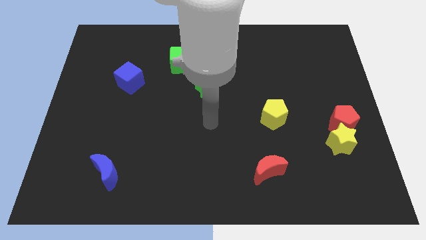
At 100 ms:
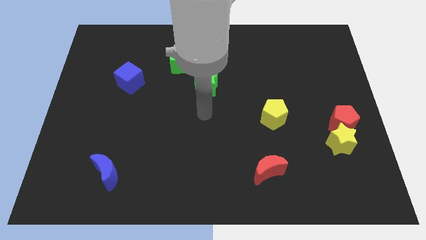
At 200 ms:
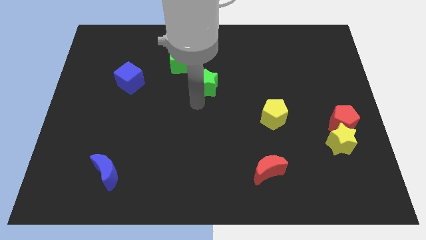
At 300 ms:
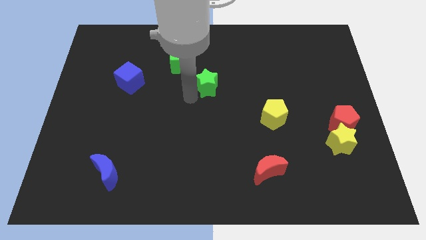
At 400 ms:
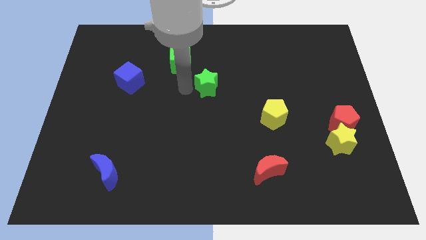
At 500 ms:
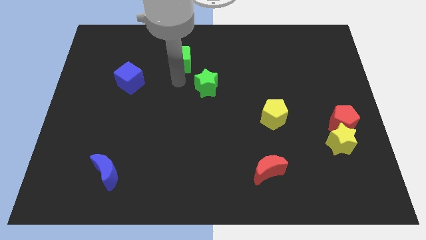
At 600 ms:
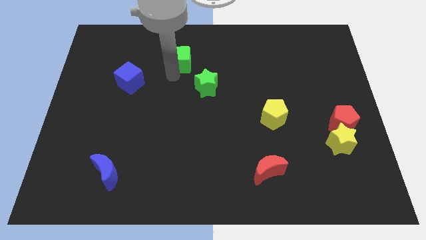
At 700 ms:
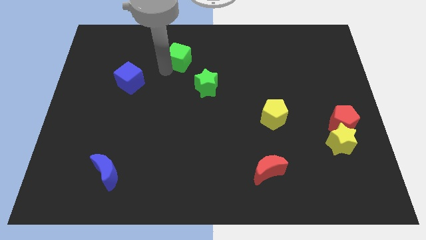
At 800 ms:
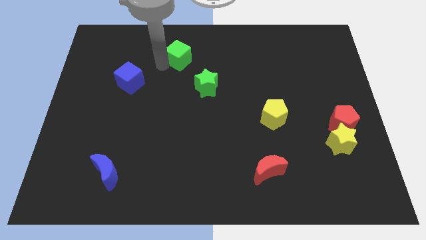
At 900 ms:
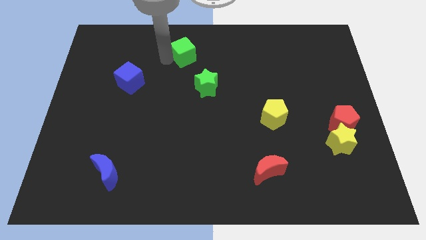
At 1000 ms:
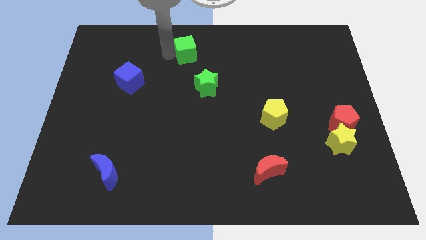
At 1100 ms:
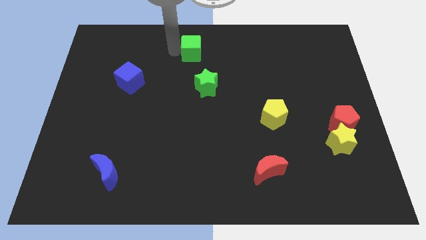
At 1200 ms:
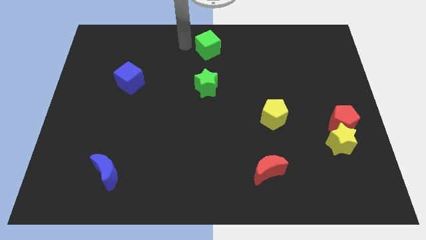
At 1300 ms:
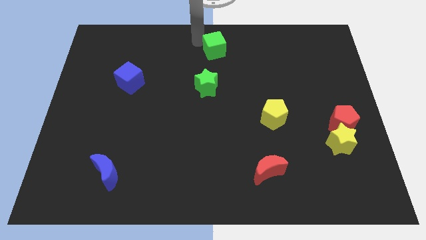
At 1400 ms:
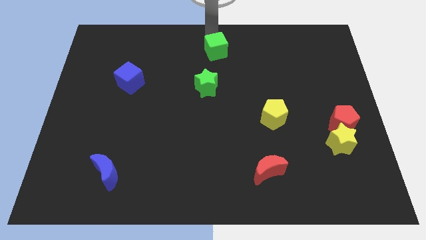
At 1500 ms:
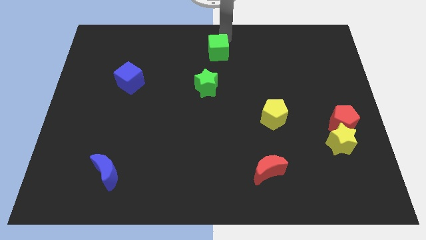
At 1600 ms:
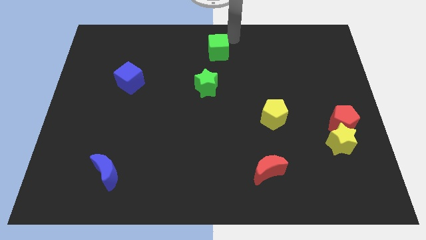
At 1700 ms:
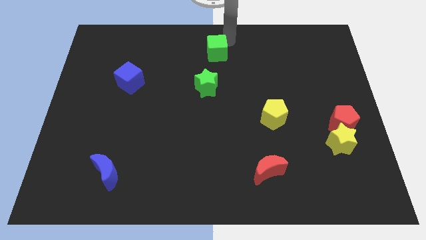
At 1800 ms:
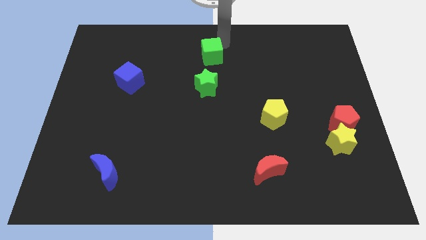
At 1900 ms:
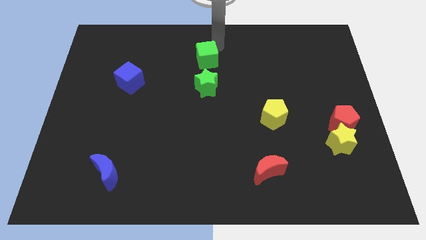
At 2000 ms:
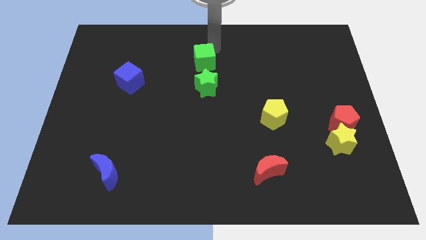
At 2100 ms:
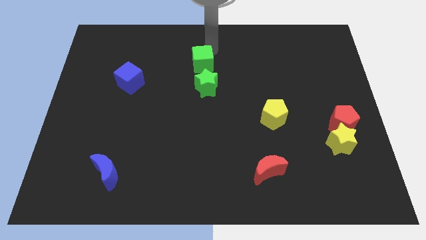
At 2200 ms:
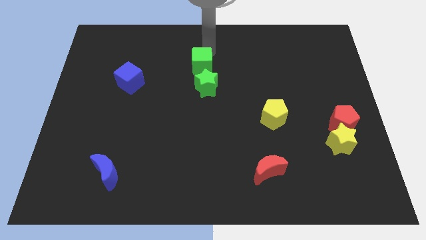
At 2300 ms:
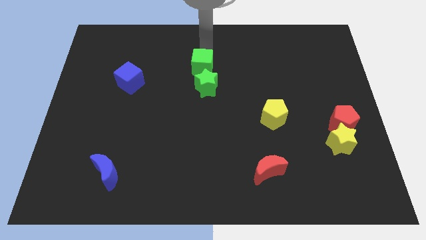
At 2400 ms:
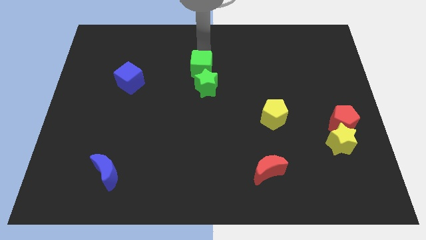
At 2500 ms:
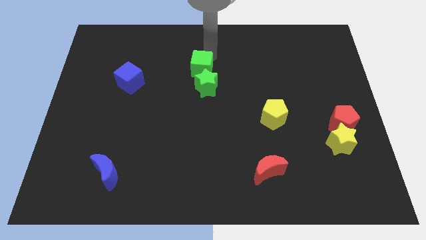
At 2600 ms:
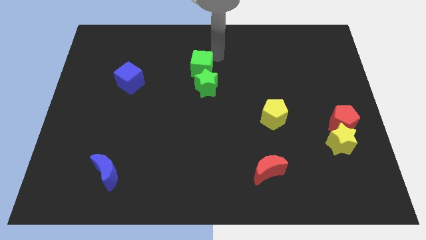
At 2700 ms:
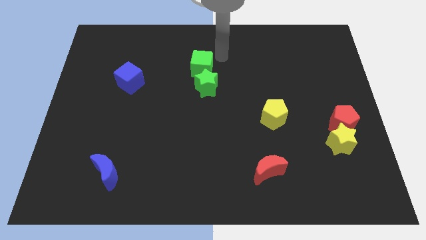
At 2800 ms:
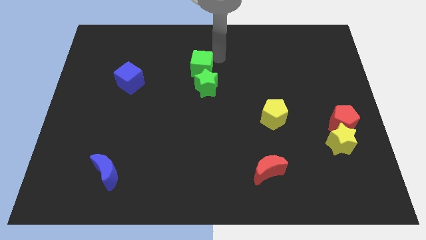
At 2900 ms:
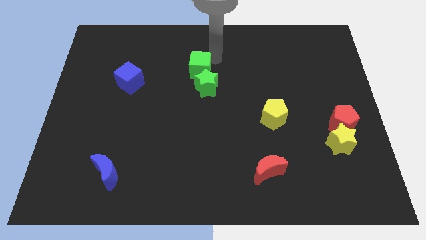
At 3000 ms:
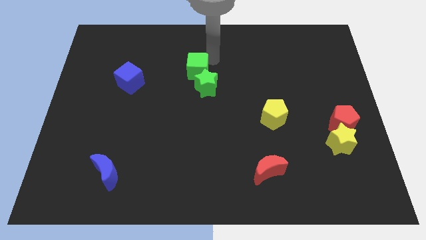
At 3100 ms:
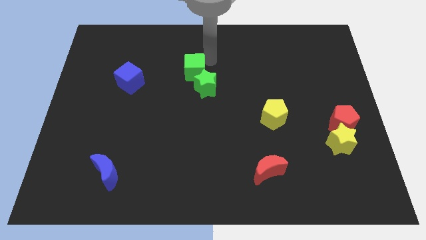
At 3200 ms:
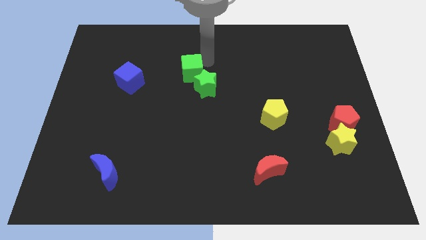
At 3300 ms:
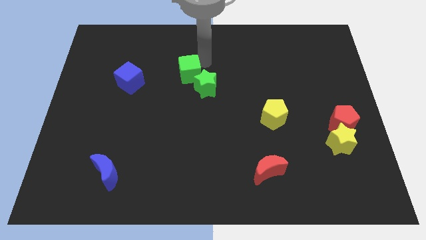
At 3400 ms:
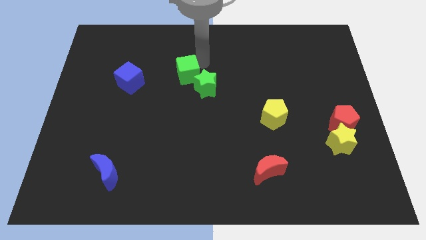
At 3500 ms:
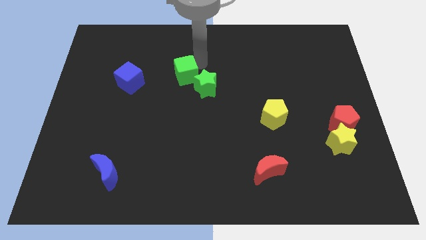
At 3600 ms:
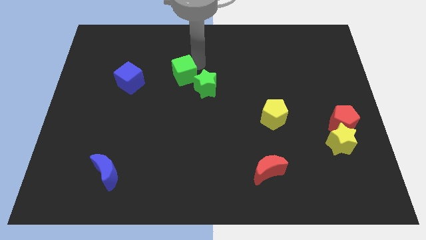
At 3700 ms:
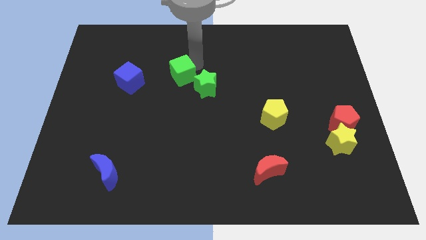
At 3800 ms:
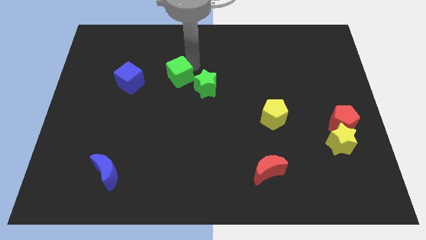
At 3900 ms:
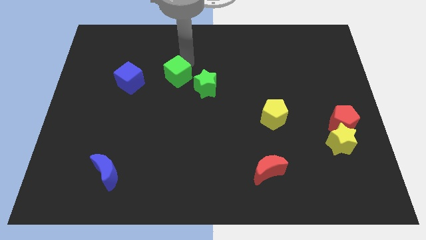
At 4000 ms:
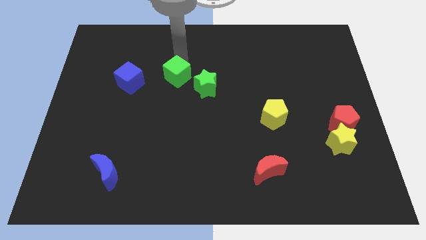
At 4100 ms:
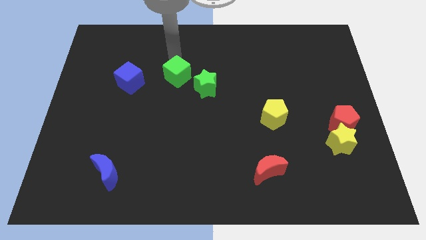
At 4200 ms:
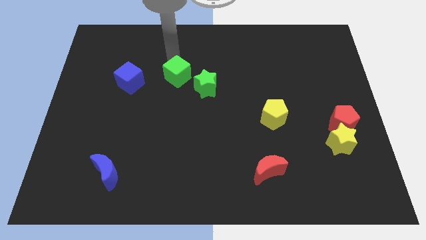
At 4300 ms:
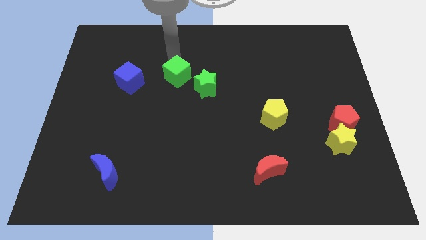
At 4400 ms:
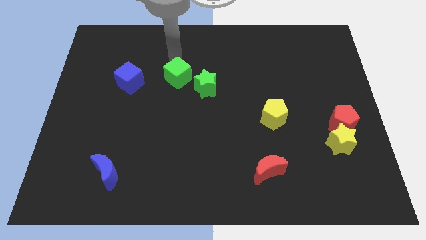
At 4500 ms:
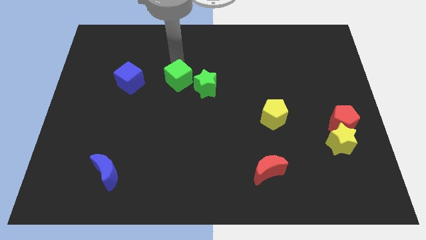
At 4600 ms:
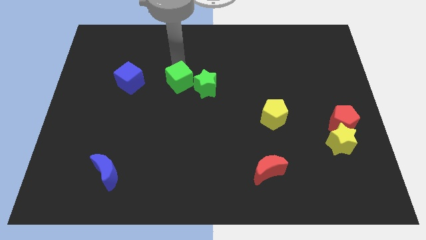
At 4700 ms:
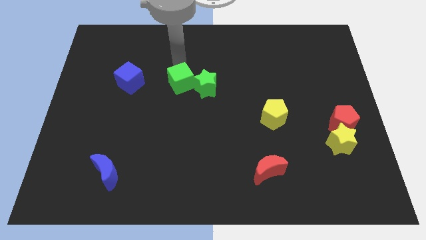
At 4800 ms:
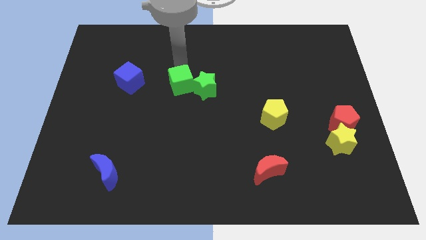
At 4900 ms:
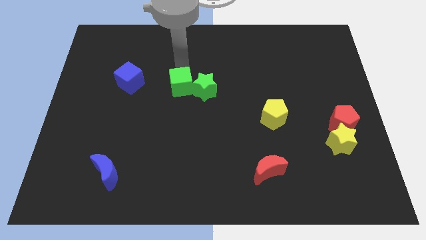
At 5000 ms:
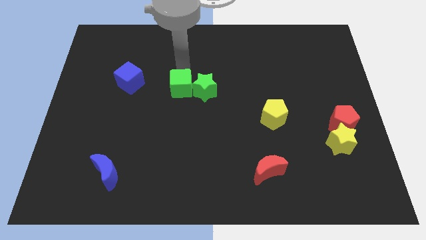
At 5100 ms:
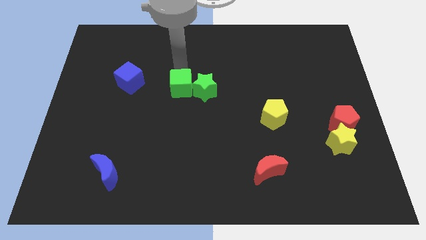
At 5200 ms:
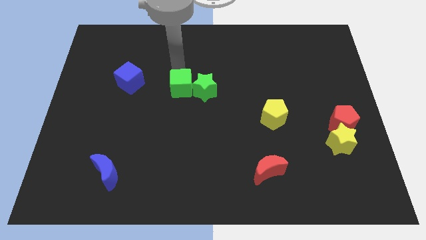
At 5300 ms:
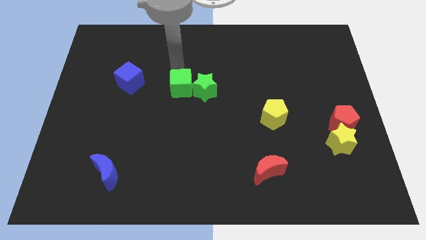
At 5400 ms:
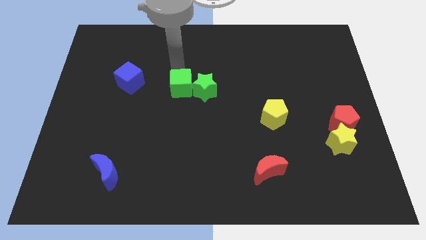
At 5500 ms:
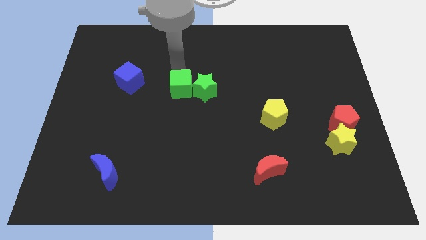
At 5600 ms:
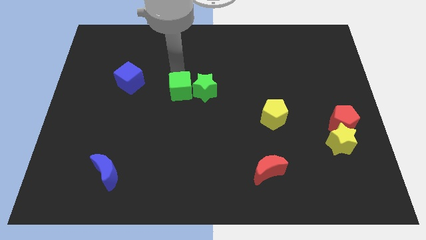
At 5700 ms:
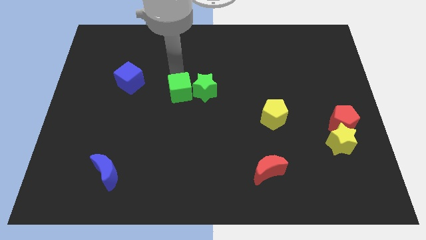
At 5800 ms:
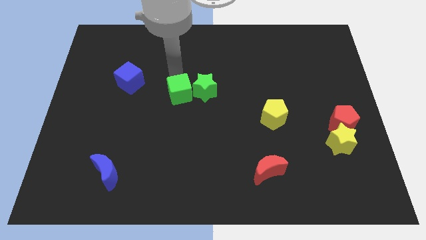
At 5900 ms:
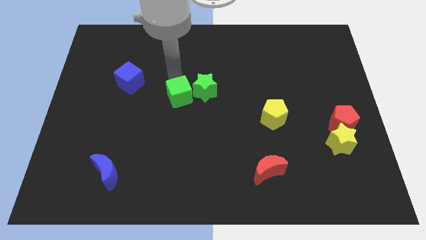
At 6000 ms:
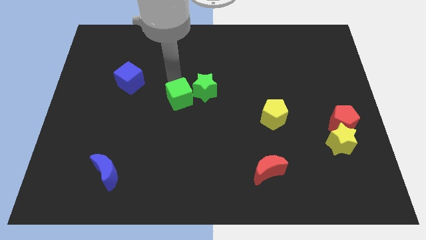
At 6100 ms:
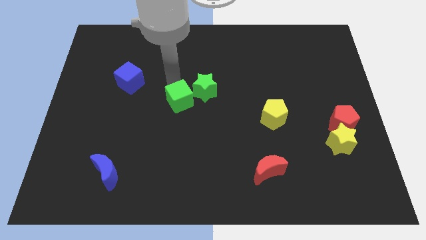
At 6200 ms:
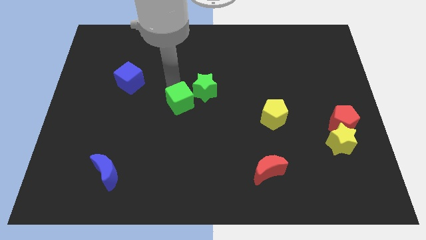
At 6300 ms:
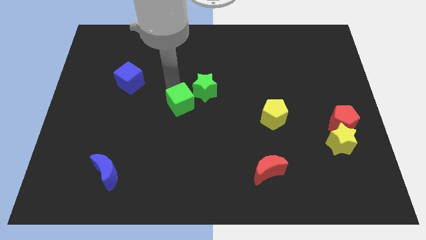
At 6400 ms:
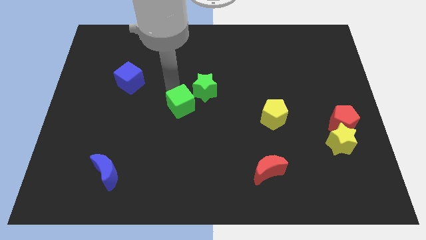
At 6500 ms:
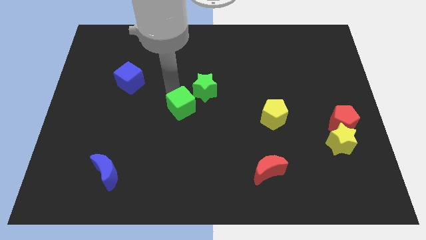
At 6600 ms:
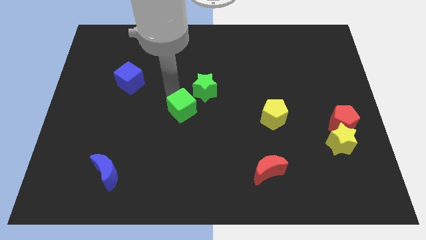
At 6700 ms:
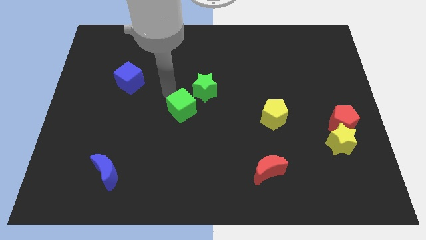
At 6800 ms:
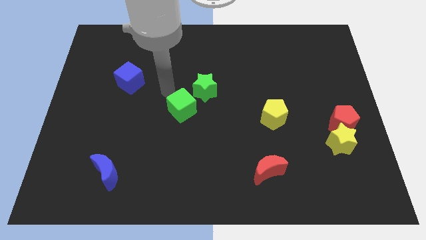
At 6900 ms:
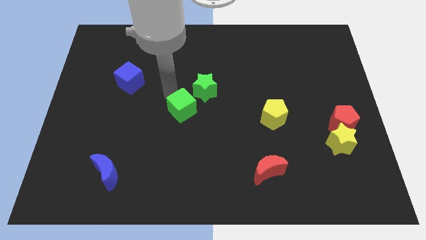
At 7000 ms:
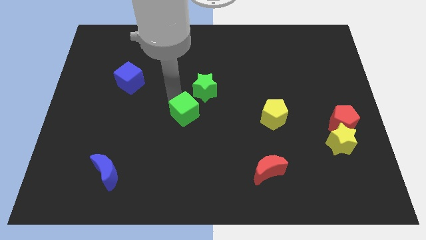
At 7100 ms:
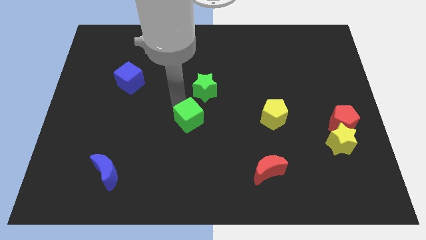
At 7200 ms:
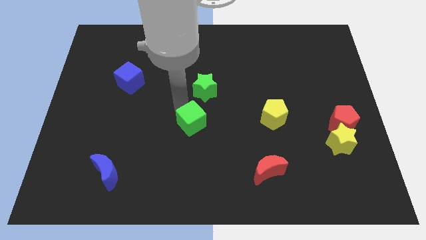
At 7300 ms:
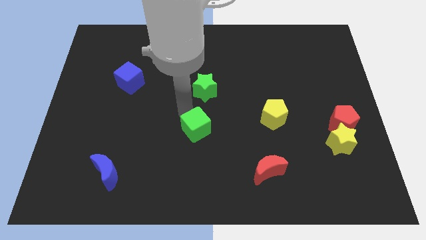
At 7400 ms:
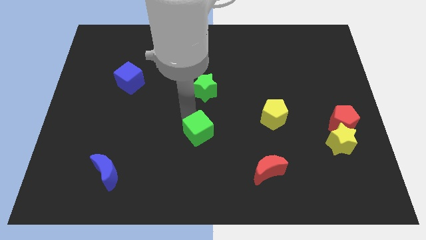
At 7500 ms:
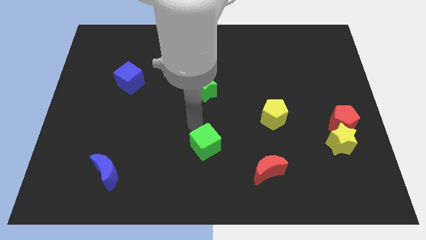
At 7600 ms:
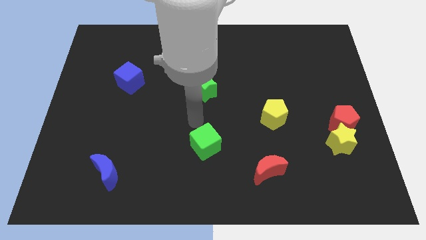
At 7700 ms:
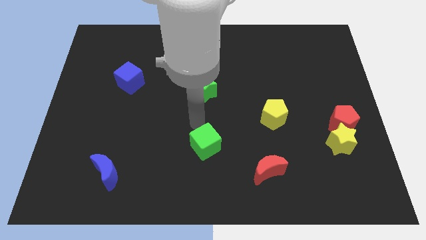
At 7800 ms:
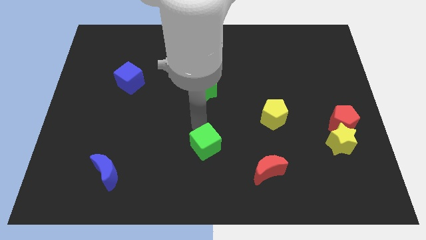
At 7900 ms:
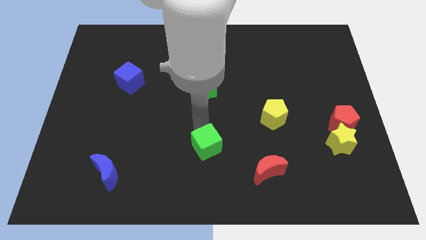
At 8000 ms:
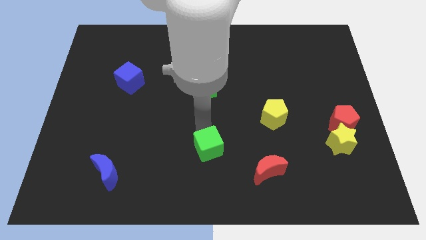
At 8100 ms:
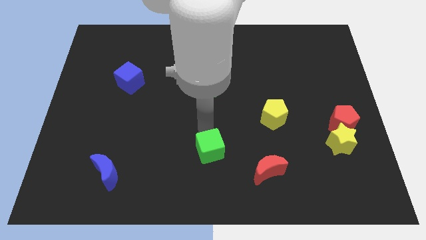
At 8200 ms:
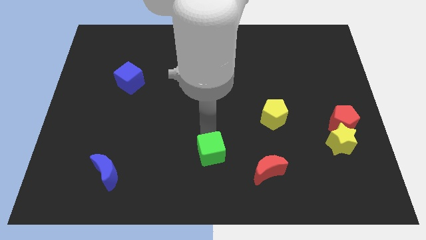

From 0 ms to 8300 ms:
slide the green cube left of the red moon
